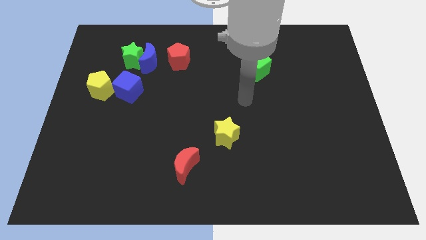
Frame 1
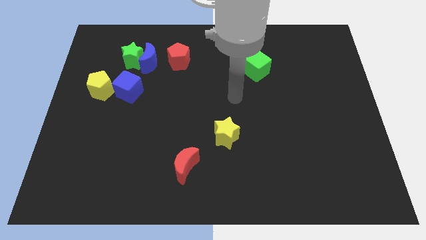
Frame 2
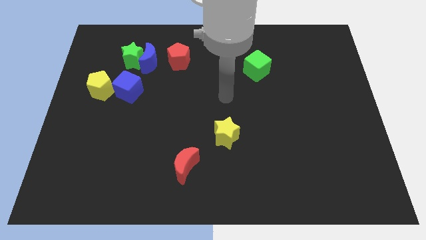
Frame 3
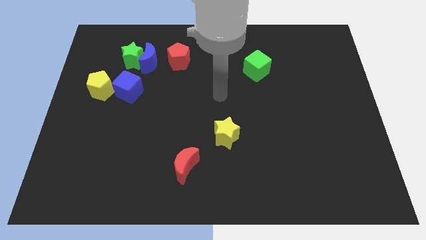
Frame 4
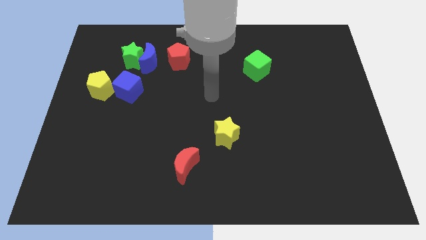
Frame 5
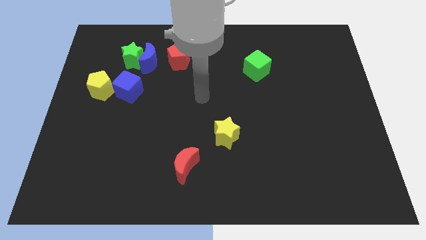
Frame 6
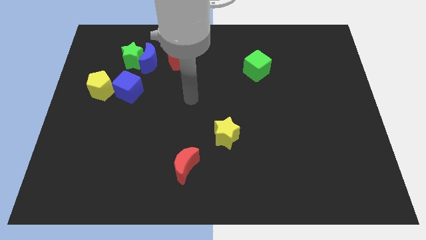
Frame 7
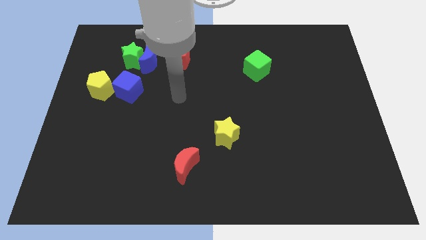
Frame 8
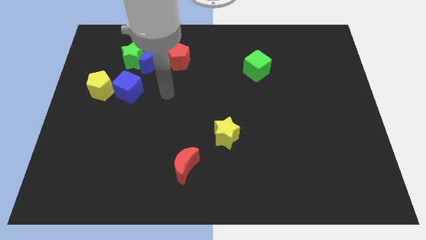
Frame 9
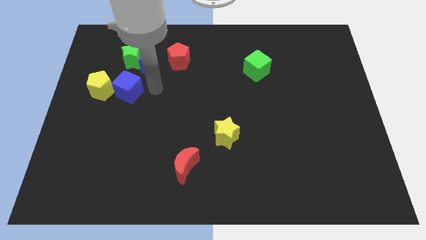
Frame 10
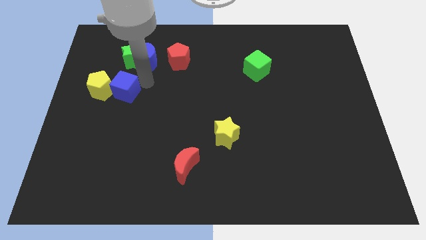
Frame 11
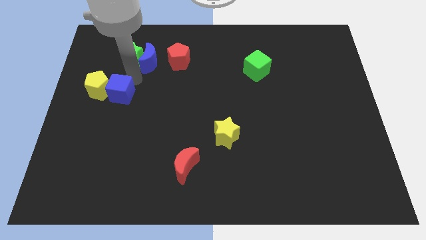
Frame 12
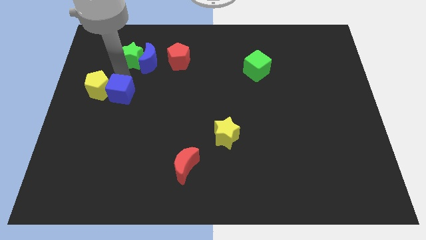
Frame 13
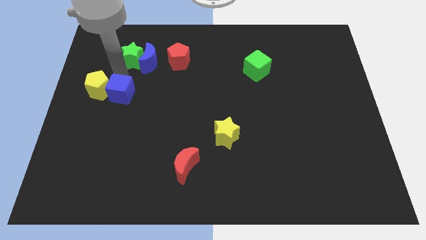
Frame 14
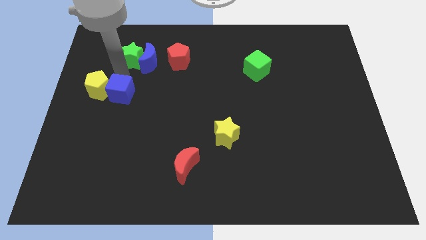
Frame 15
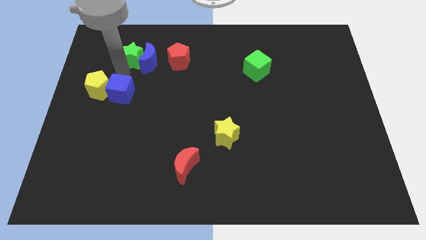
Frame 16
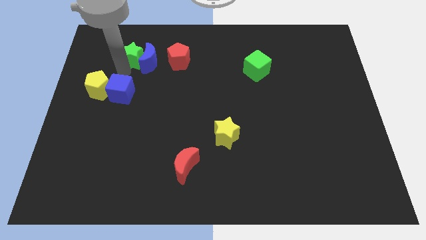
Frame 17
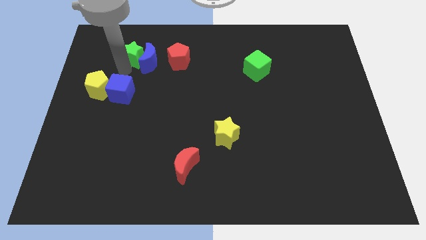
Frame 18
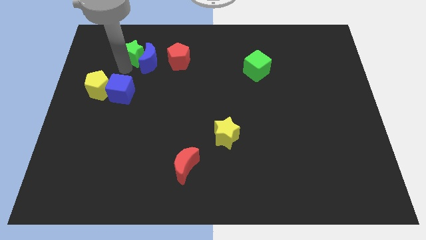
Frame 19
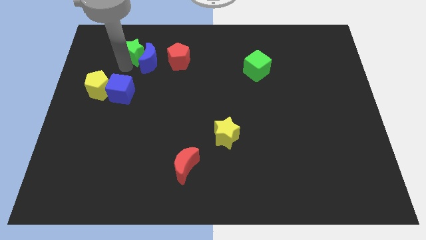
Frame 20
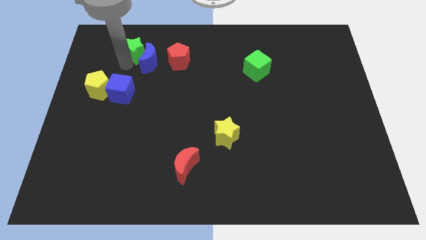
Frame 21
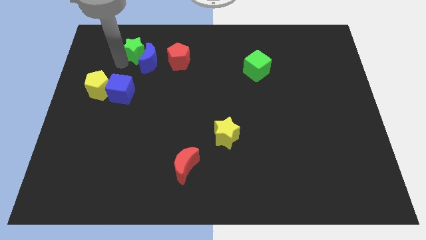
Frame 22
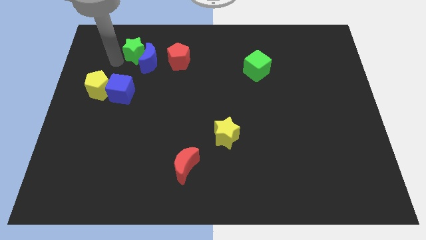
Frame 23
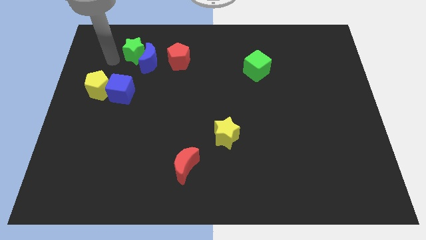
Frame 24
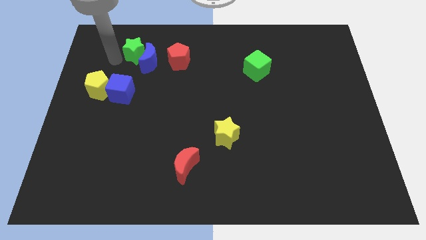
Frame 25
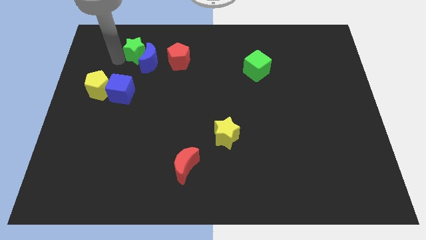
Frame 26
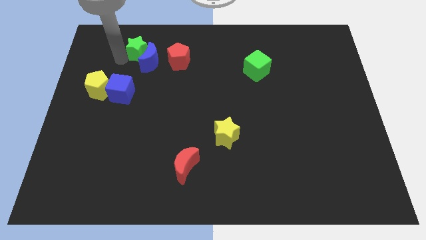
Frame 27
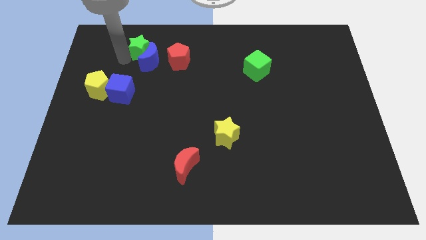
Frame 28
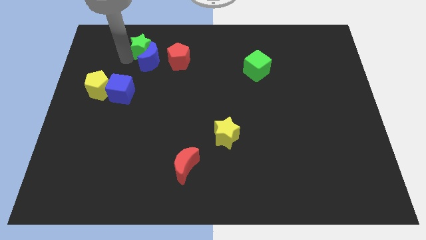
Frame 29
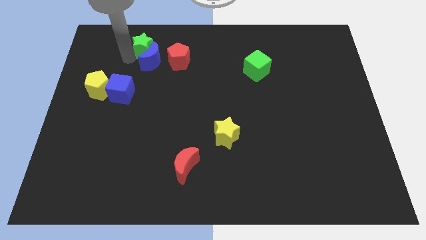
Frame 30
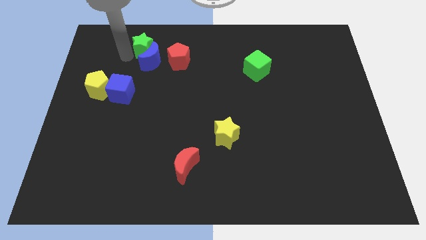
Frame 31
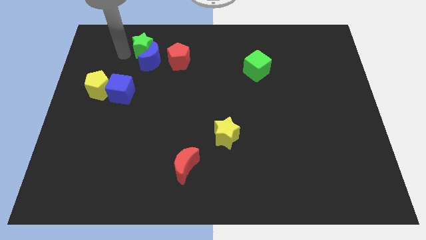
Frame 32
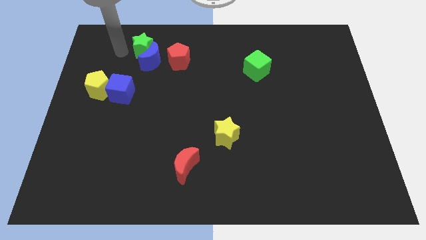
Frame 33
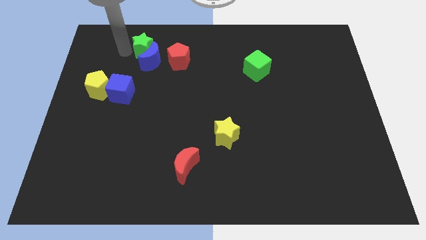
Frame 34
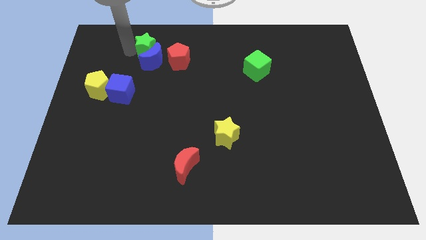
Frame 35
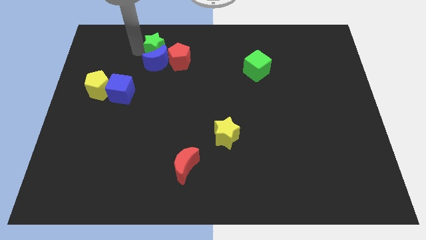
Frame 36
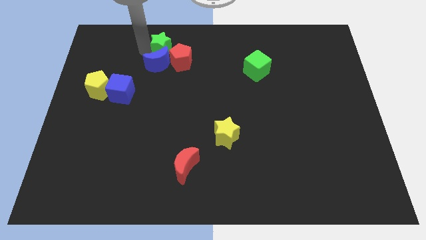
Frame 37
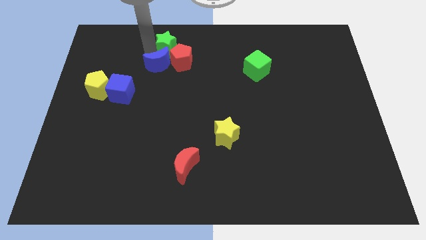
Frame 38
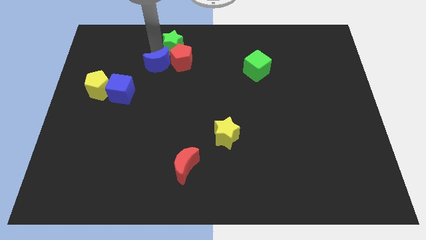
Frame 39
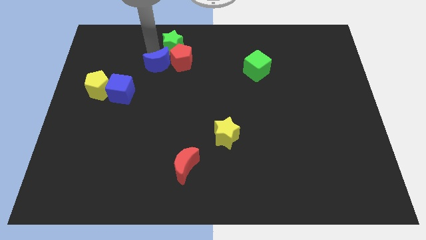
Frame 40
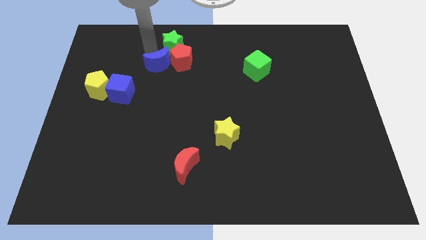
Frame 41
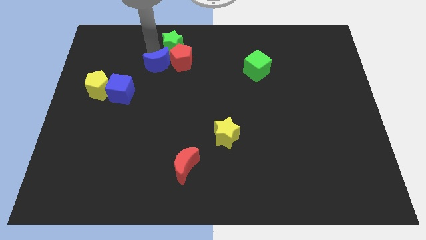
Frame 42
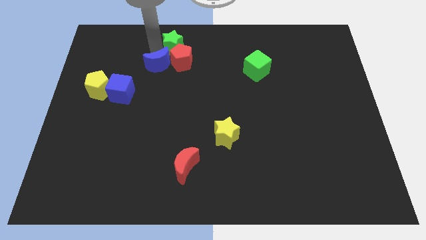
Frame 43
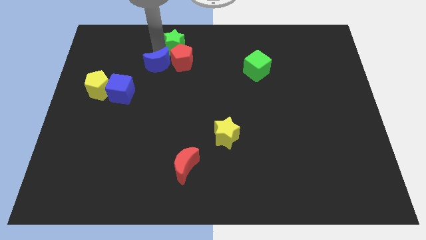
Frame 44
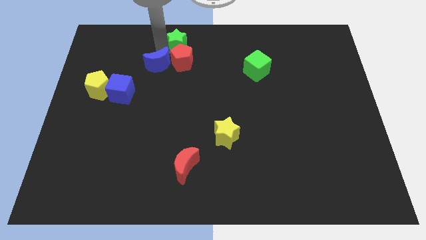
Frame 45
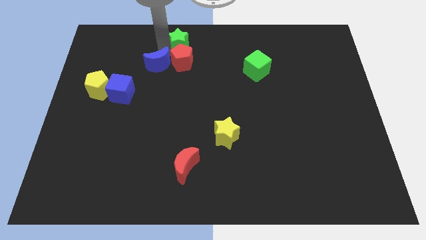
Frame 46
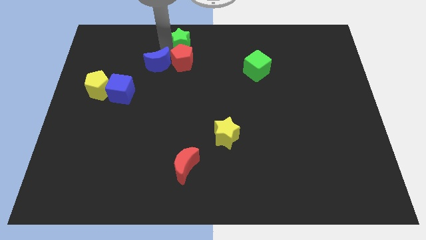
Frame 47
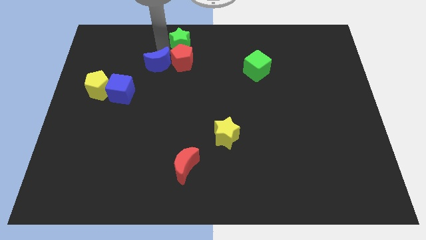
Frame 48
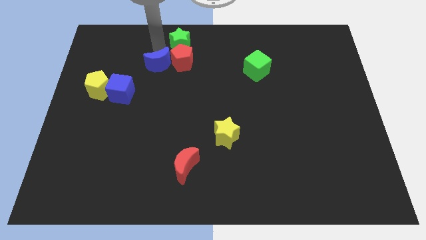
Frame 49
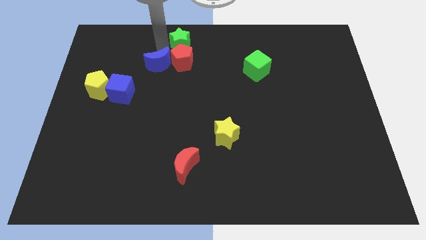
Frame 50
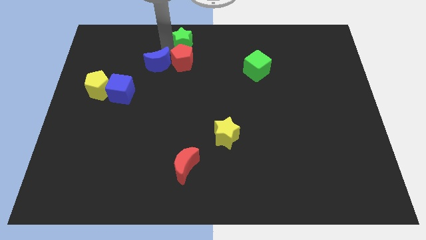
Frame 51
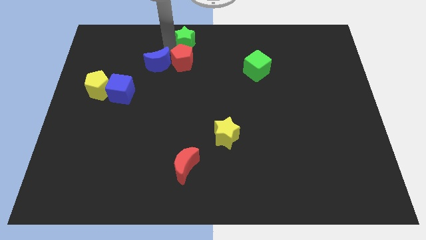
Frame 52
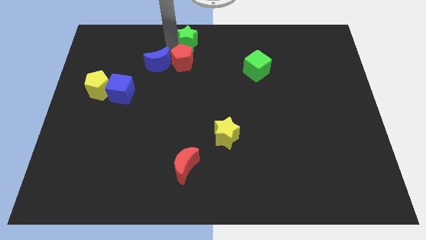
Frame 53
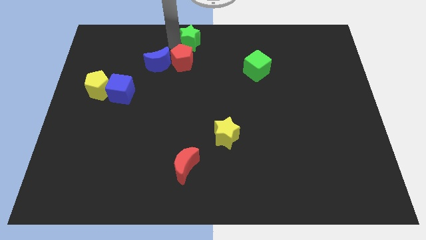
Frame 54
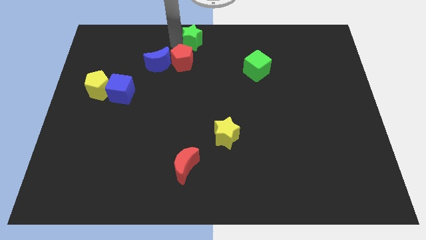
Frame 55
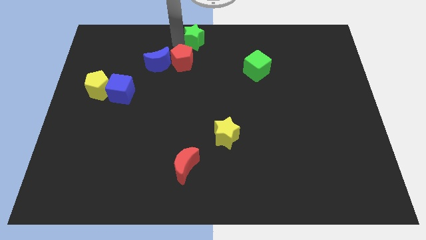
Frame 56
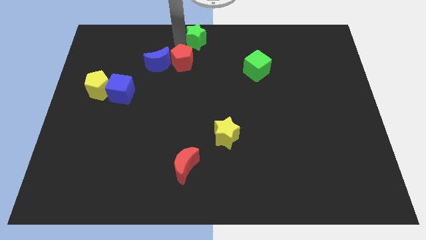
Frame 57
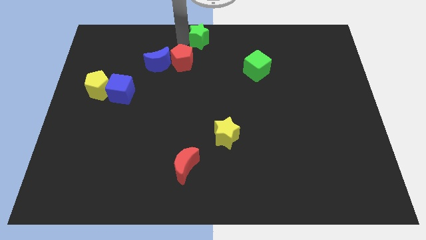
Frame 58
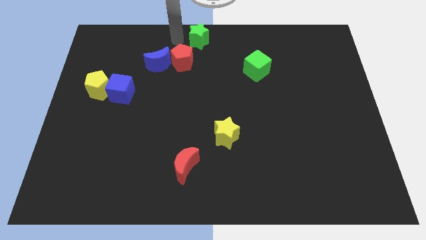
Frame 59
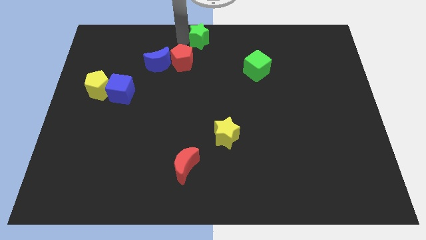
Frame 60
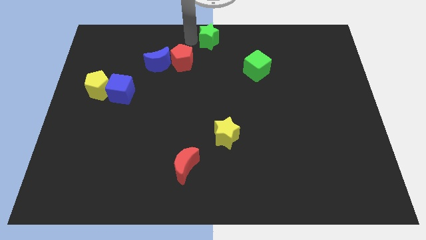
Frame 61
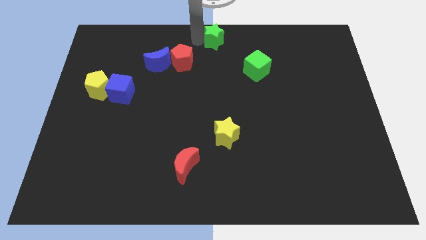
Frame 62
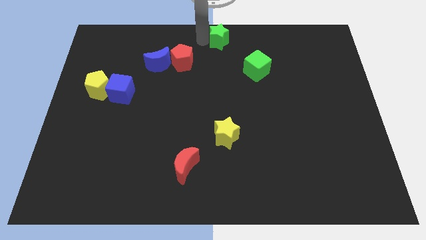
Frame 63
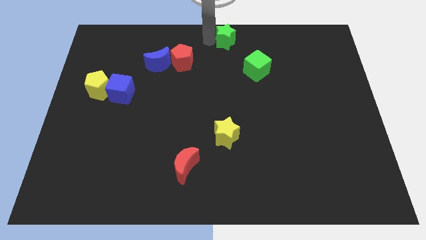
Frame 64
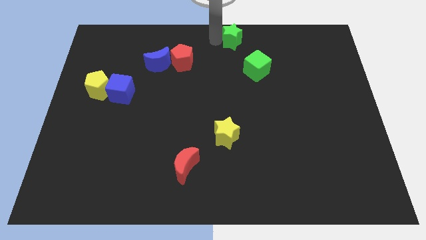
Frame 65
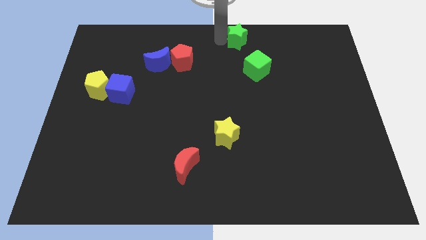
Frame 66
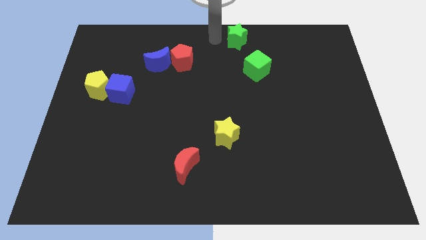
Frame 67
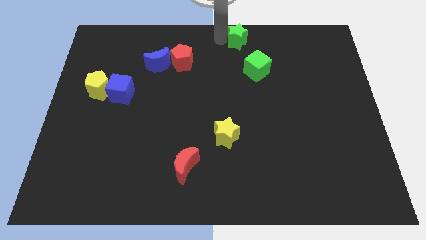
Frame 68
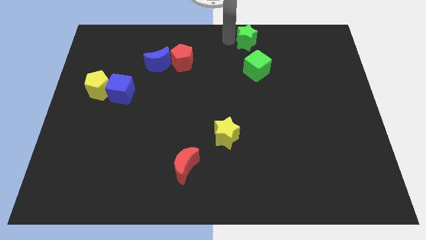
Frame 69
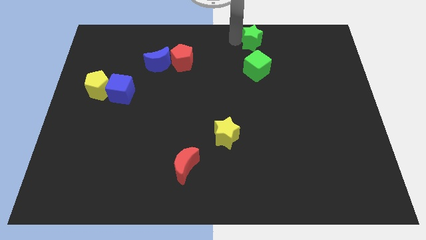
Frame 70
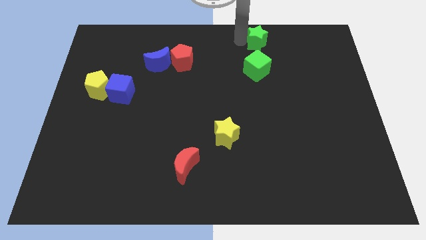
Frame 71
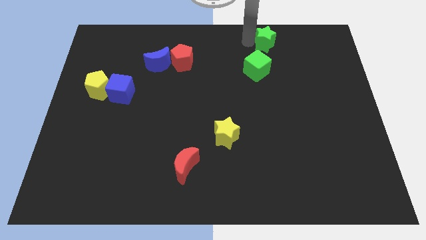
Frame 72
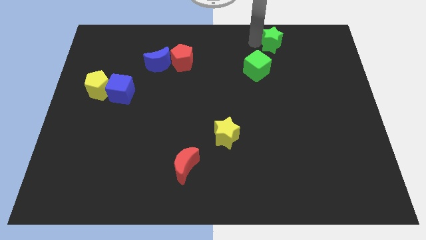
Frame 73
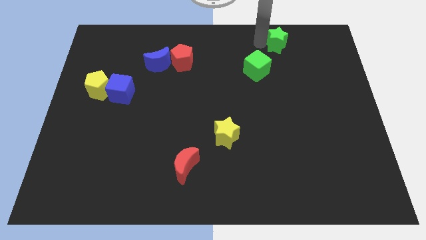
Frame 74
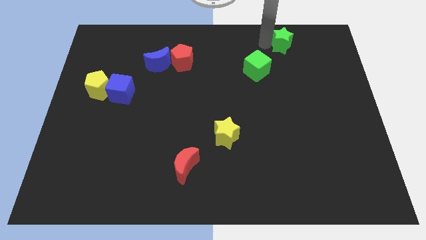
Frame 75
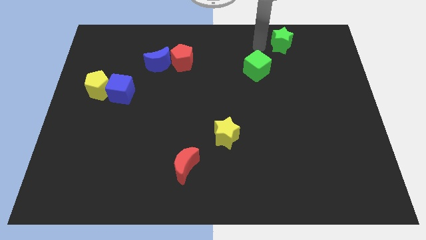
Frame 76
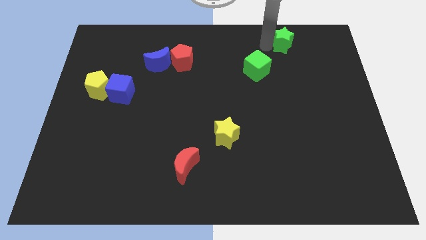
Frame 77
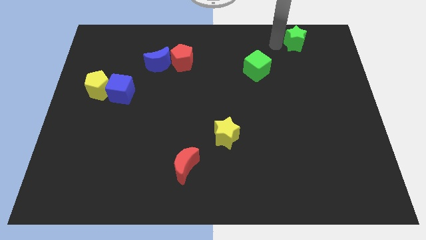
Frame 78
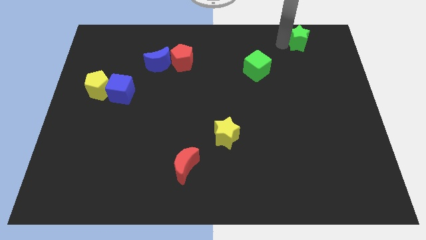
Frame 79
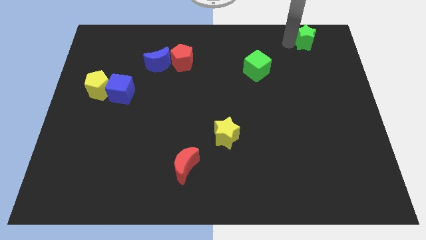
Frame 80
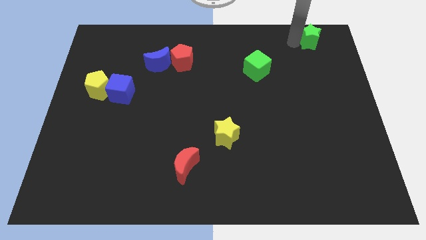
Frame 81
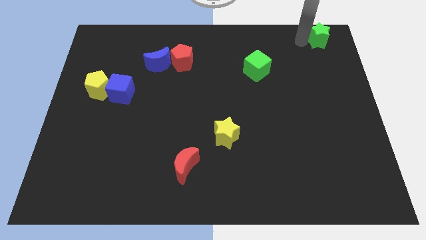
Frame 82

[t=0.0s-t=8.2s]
move the green star to the top right
